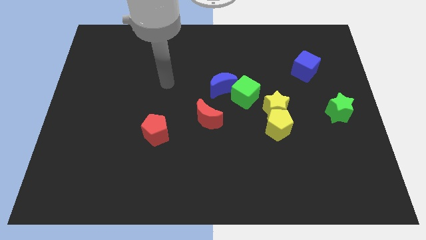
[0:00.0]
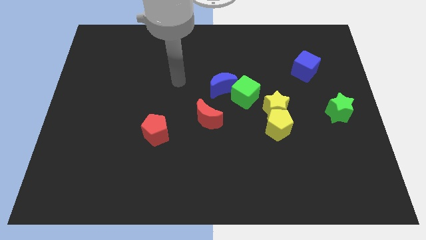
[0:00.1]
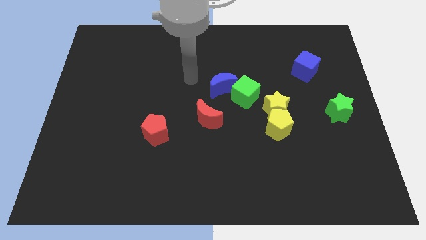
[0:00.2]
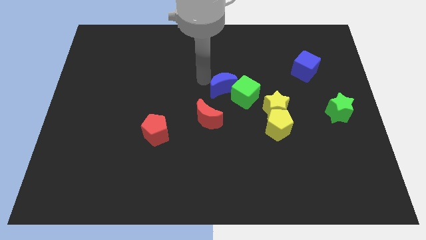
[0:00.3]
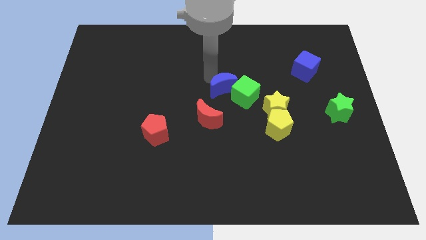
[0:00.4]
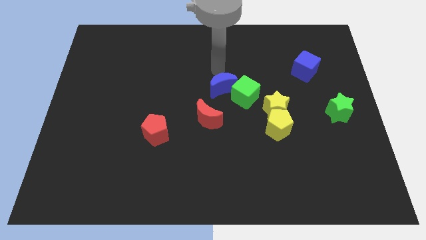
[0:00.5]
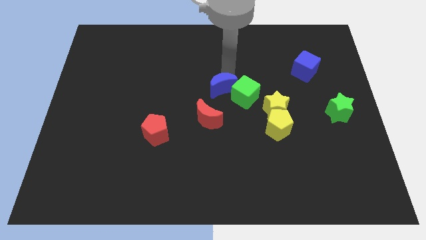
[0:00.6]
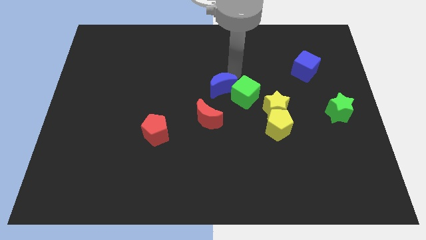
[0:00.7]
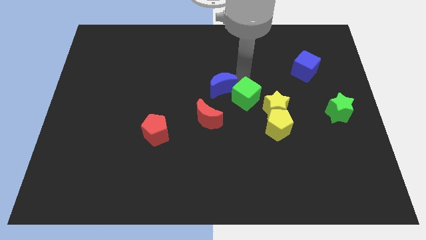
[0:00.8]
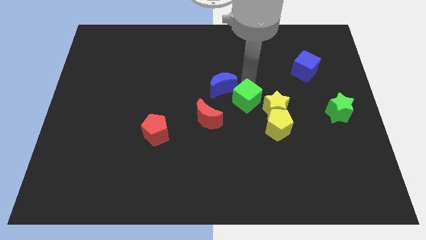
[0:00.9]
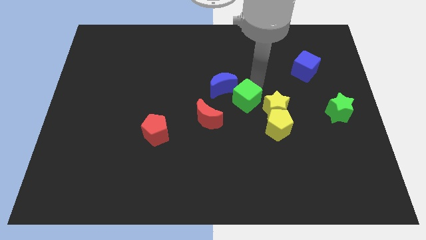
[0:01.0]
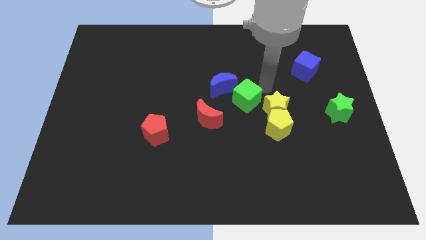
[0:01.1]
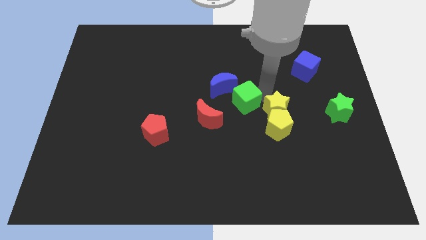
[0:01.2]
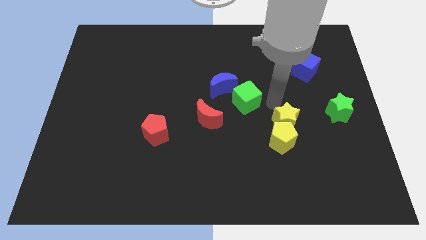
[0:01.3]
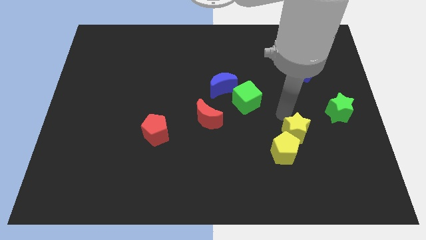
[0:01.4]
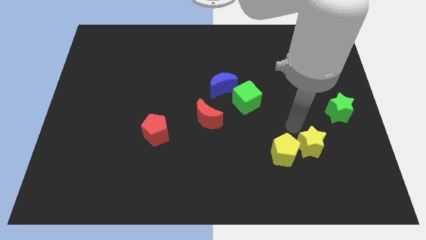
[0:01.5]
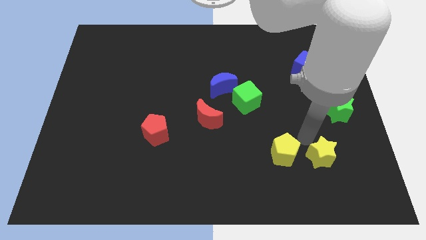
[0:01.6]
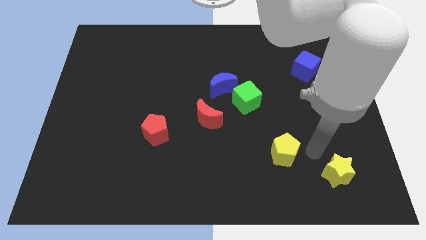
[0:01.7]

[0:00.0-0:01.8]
separate the yellow pentagon from the yellow star

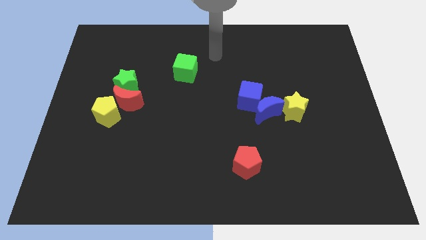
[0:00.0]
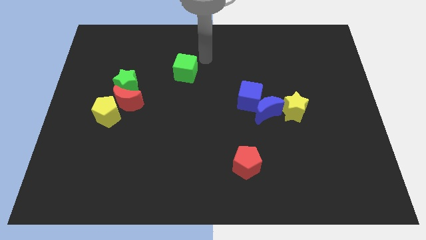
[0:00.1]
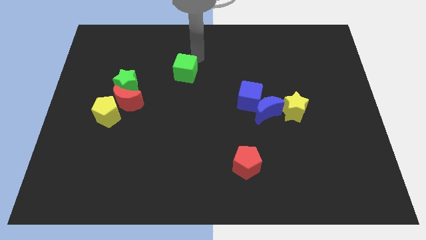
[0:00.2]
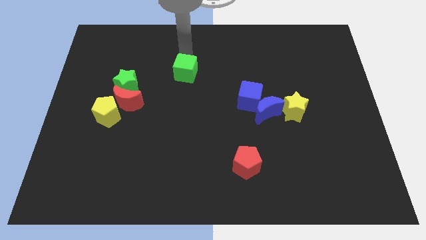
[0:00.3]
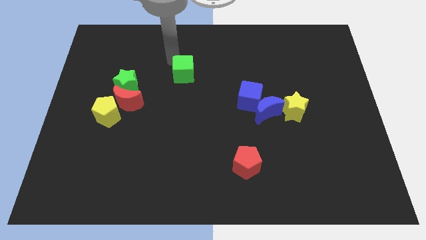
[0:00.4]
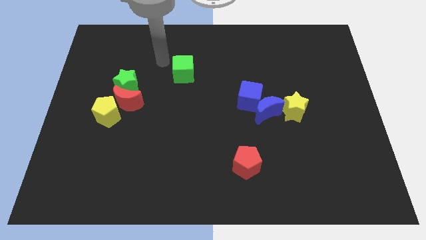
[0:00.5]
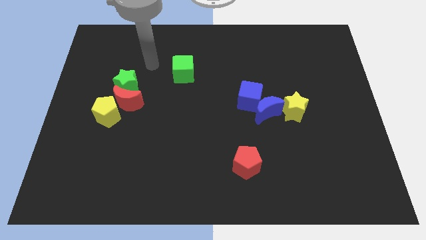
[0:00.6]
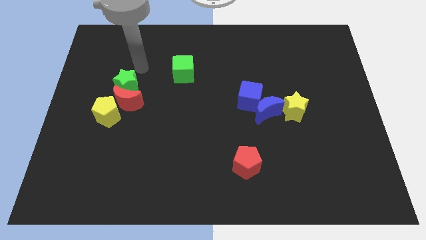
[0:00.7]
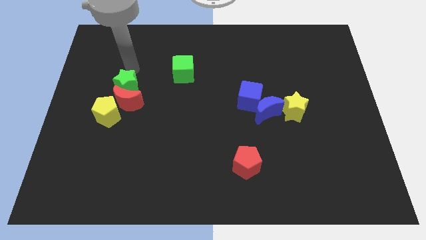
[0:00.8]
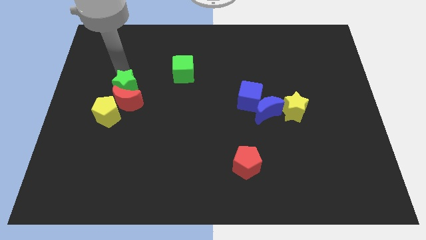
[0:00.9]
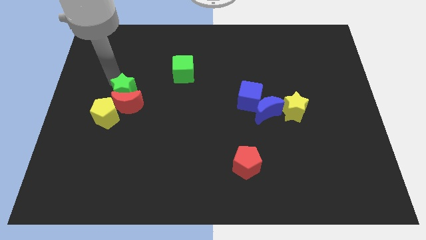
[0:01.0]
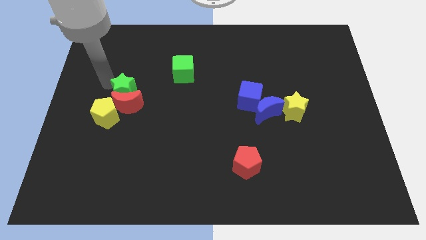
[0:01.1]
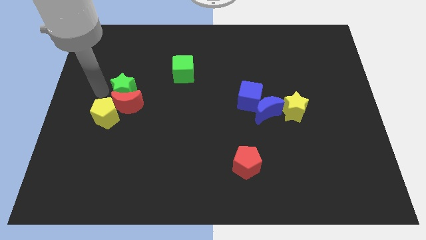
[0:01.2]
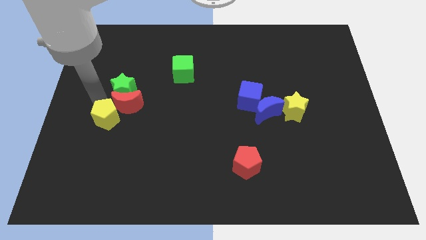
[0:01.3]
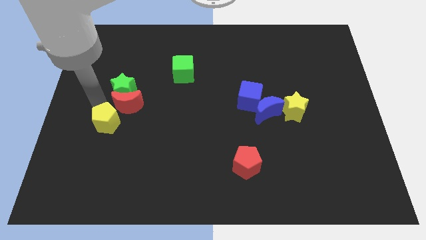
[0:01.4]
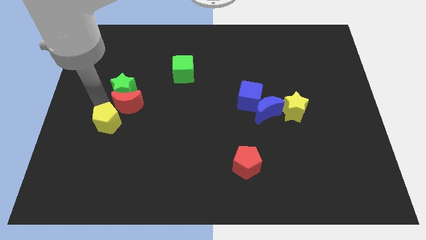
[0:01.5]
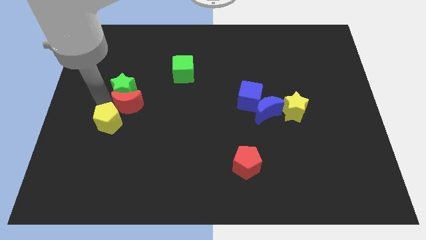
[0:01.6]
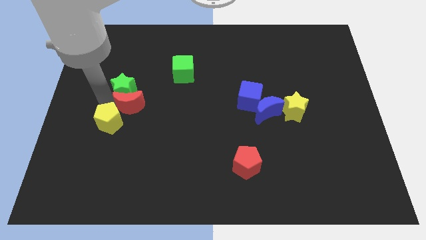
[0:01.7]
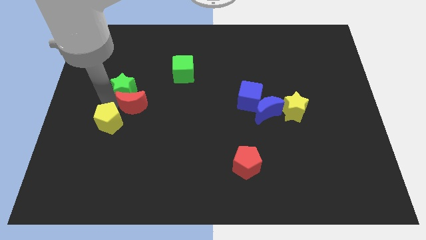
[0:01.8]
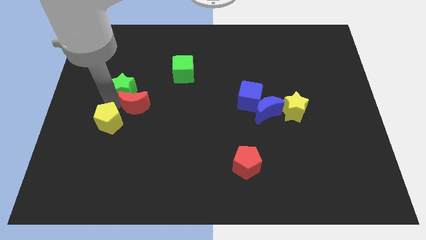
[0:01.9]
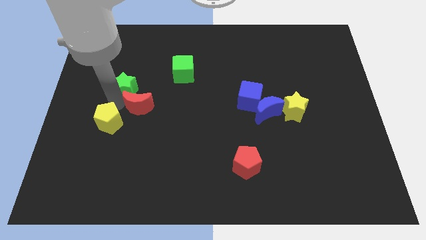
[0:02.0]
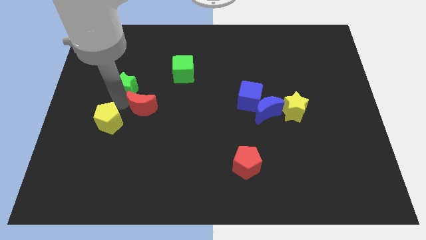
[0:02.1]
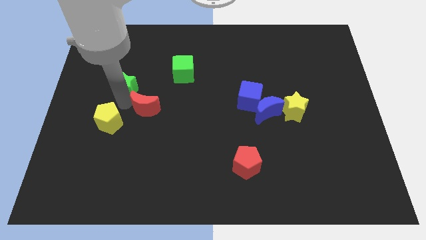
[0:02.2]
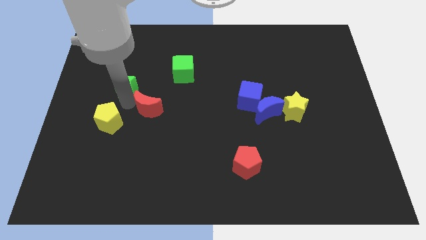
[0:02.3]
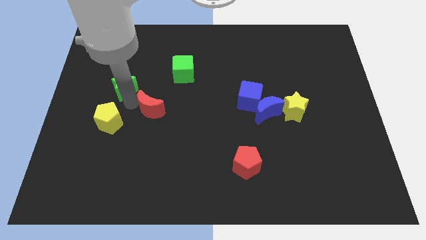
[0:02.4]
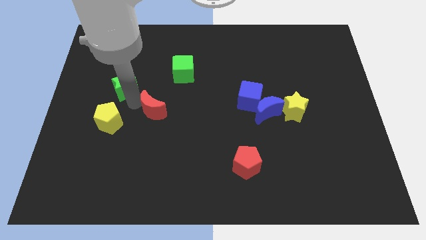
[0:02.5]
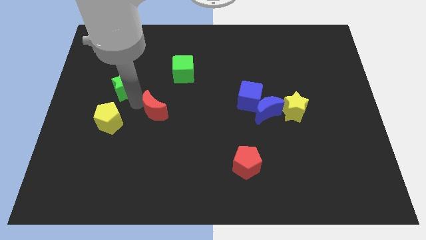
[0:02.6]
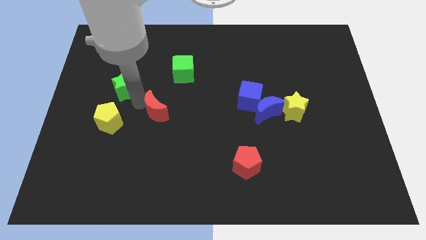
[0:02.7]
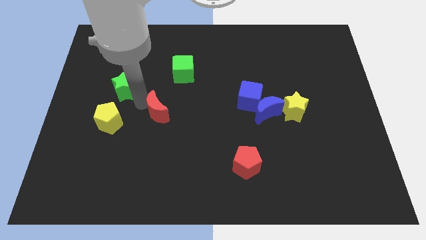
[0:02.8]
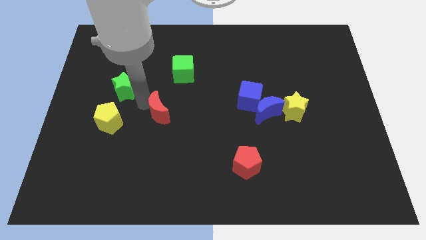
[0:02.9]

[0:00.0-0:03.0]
separate the red moon from the green star and yellow pentagon

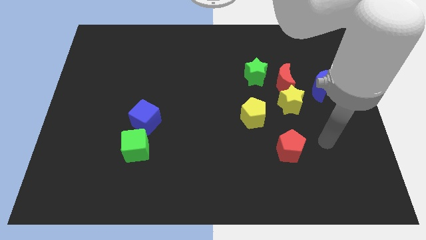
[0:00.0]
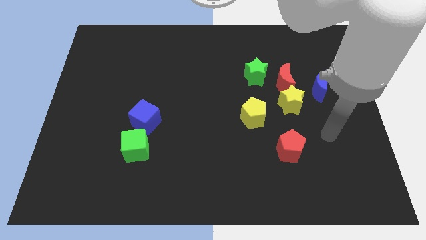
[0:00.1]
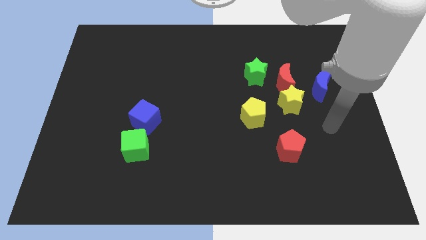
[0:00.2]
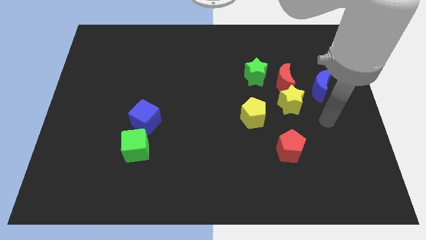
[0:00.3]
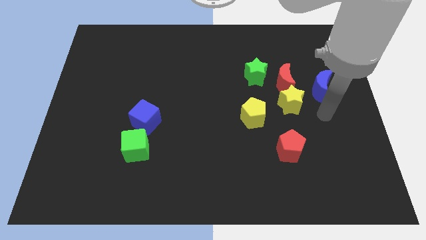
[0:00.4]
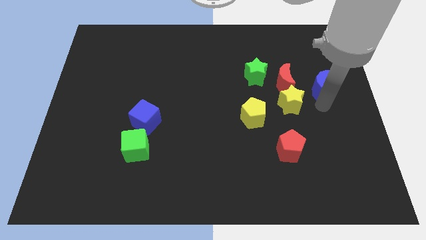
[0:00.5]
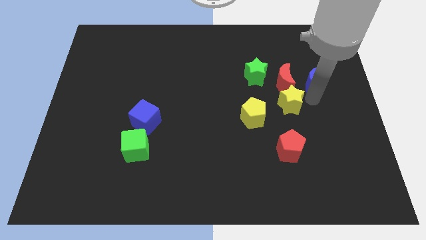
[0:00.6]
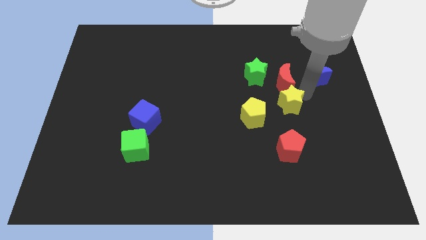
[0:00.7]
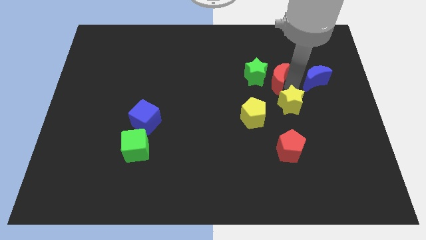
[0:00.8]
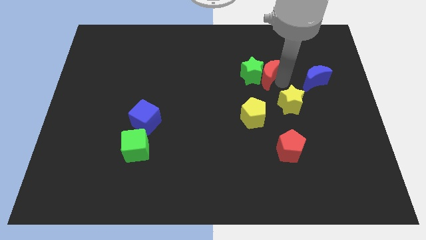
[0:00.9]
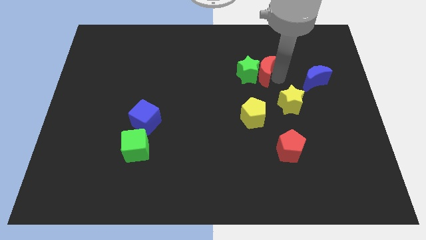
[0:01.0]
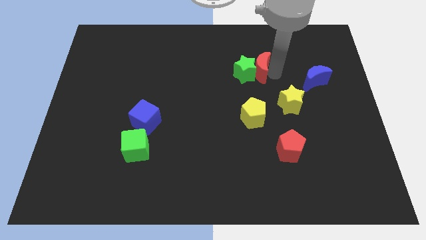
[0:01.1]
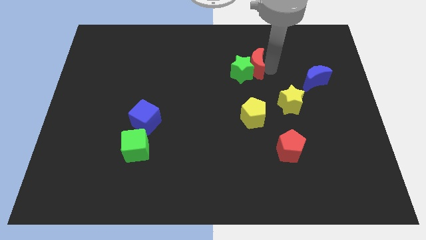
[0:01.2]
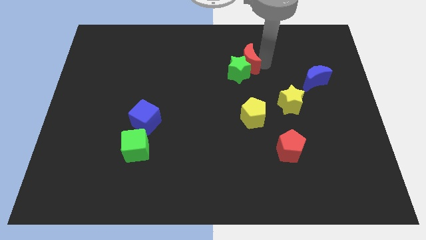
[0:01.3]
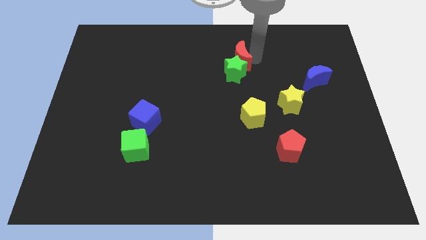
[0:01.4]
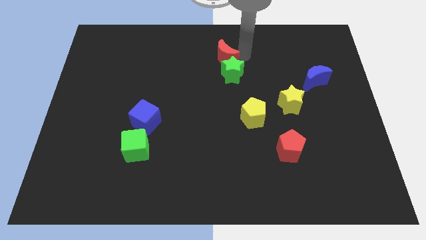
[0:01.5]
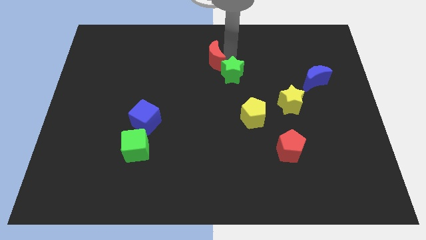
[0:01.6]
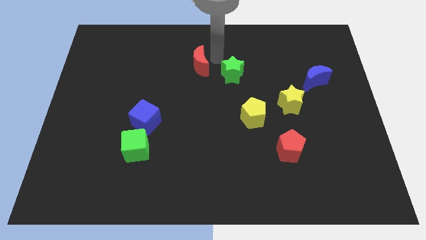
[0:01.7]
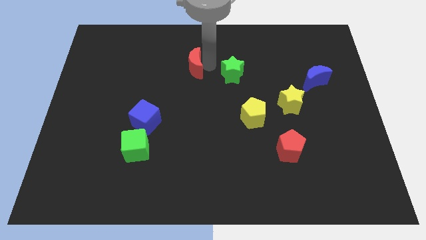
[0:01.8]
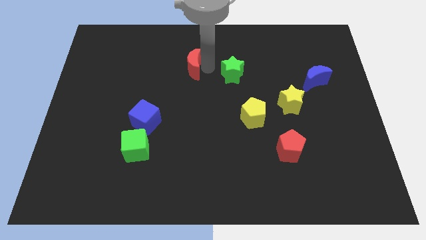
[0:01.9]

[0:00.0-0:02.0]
separate the green star from the red moon

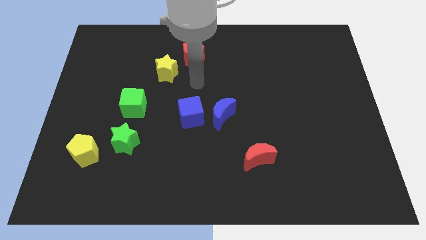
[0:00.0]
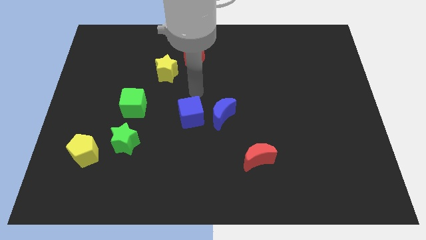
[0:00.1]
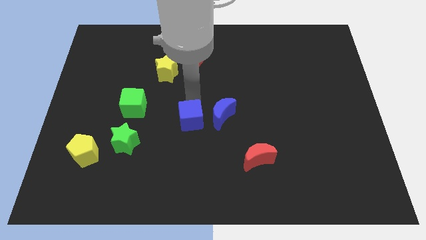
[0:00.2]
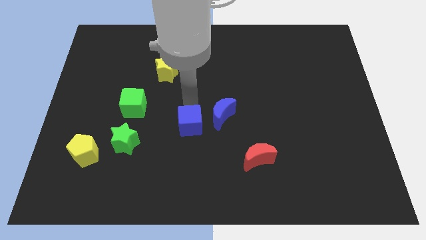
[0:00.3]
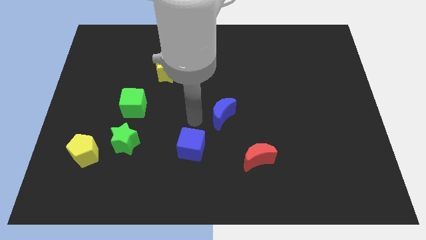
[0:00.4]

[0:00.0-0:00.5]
move the blue moon away from the blue cube

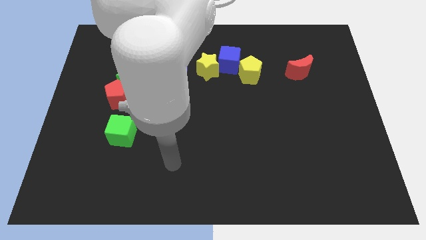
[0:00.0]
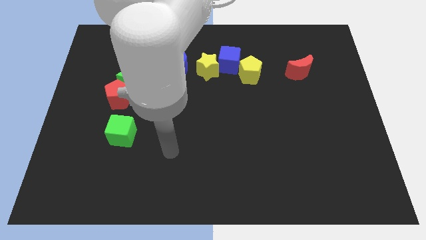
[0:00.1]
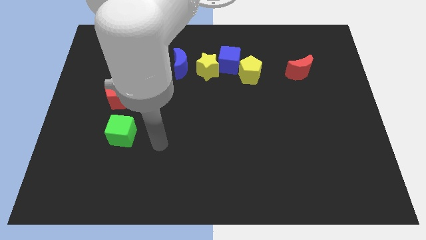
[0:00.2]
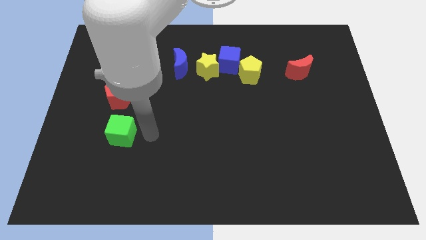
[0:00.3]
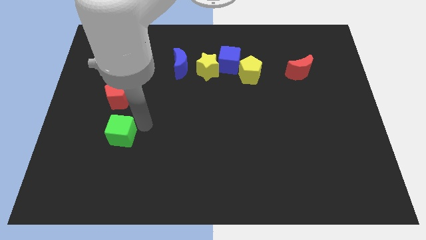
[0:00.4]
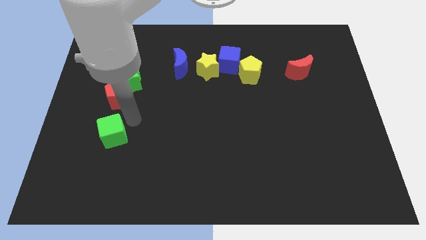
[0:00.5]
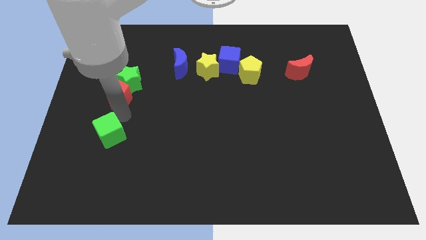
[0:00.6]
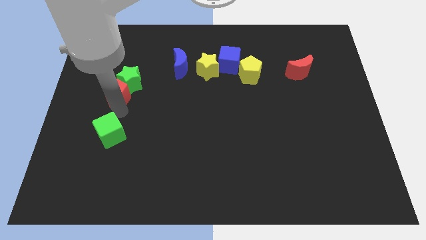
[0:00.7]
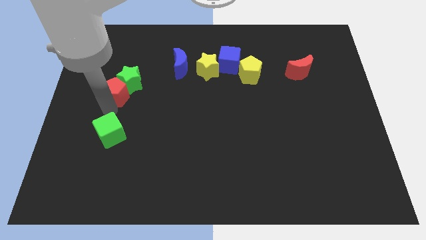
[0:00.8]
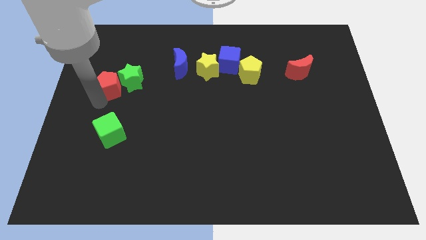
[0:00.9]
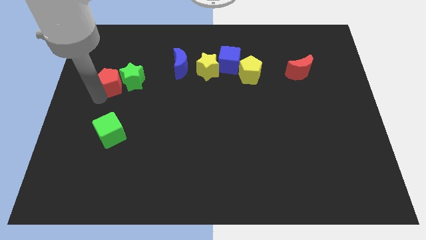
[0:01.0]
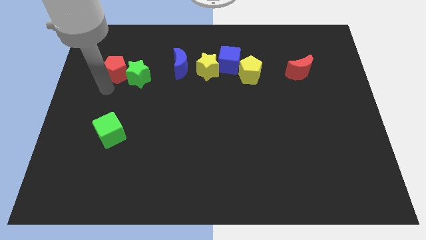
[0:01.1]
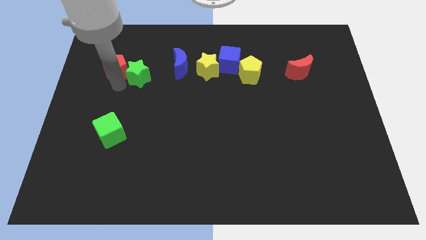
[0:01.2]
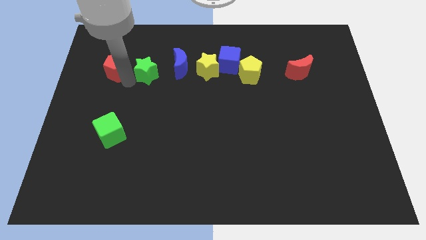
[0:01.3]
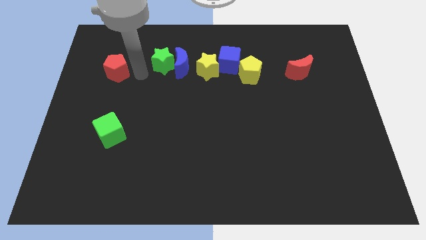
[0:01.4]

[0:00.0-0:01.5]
separate the red pentagon from the green star

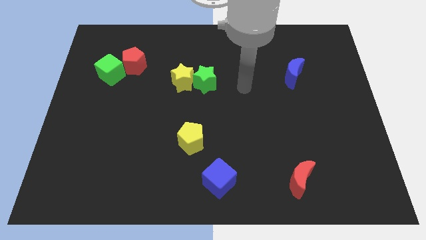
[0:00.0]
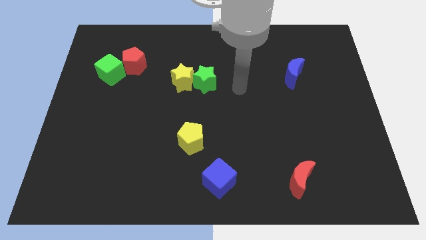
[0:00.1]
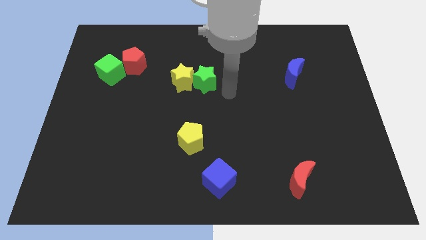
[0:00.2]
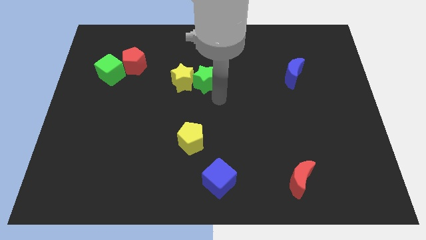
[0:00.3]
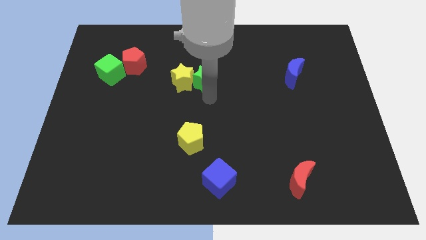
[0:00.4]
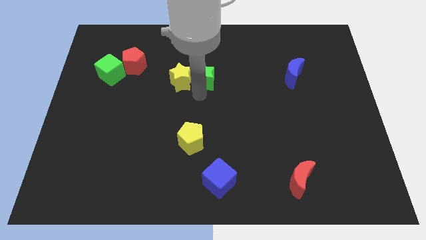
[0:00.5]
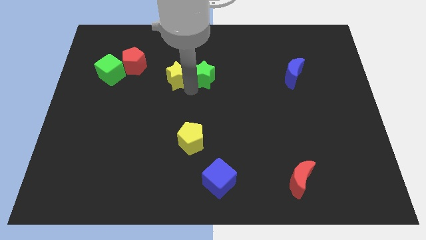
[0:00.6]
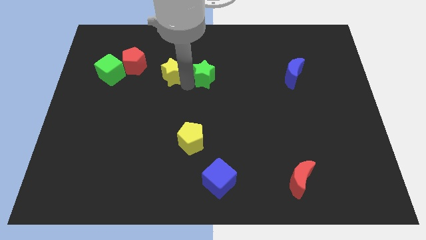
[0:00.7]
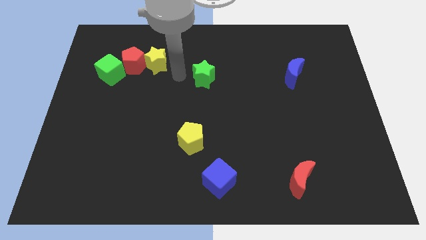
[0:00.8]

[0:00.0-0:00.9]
move the green star away from the yellow star
